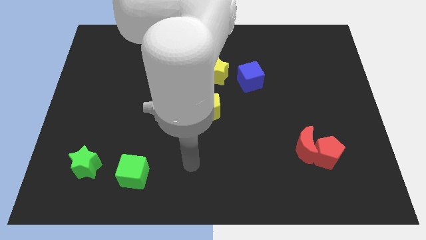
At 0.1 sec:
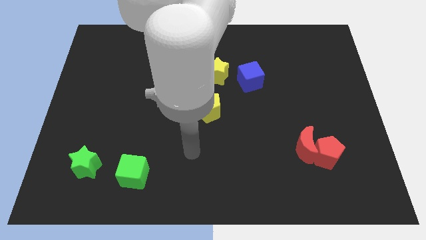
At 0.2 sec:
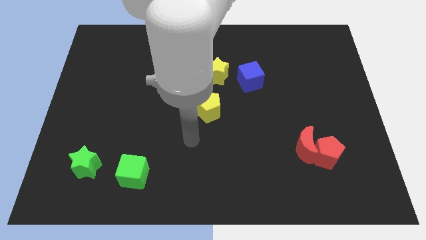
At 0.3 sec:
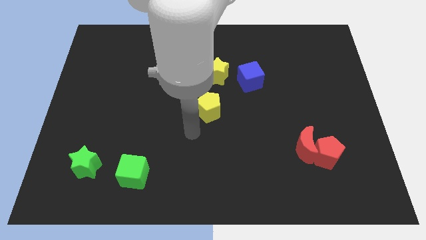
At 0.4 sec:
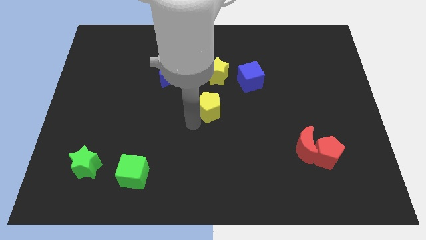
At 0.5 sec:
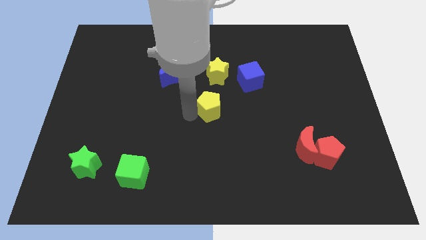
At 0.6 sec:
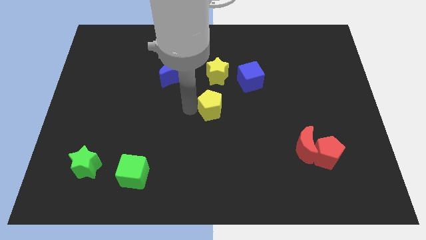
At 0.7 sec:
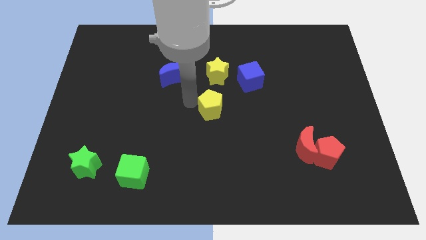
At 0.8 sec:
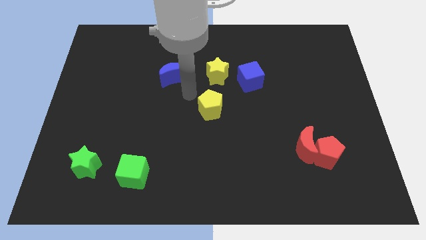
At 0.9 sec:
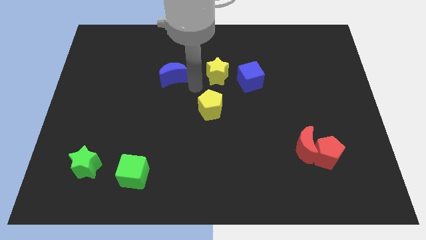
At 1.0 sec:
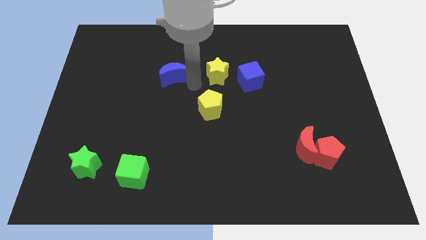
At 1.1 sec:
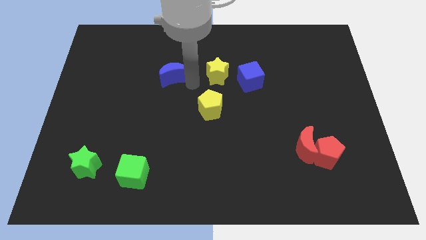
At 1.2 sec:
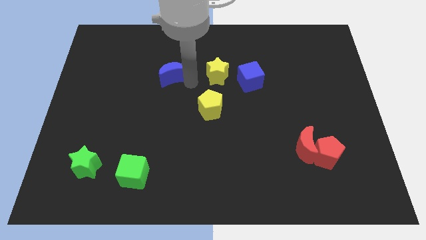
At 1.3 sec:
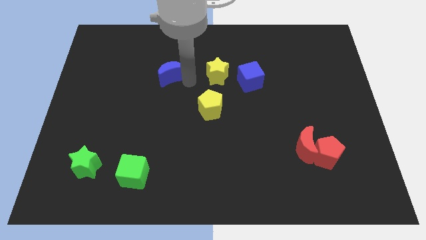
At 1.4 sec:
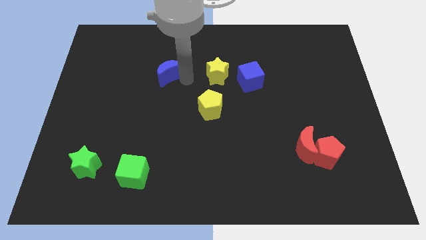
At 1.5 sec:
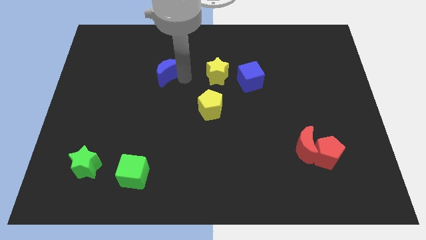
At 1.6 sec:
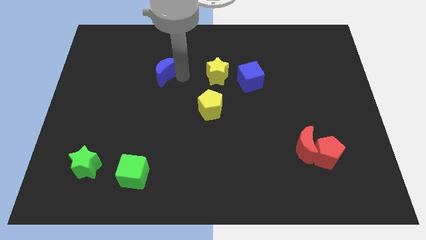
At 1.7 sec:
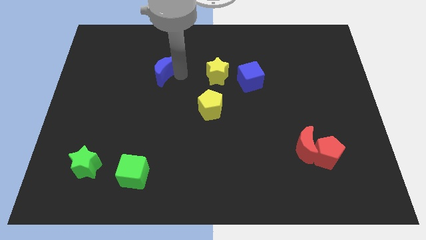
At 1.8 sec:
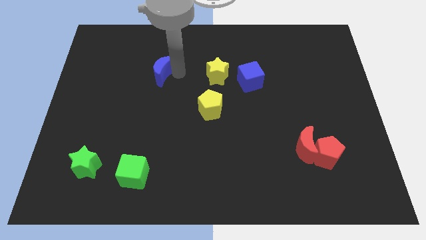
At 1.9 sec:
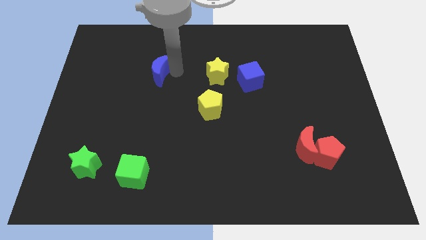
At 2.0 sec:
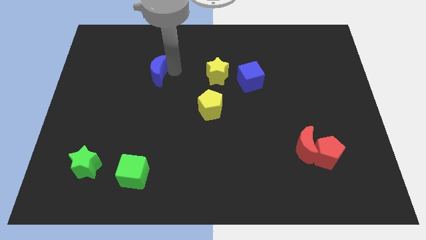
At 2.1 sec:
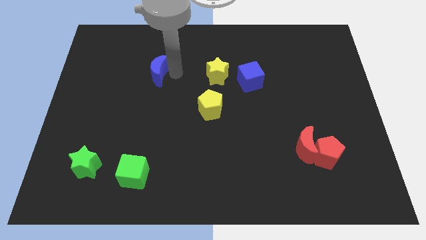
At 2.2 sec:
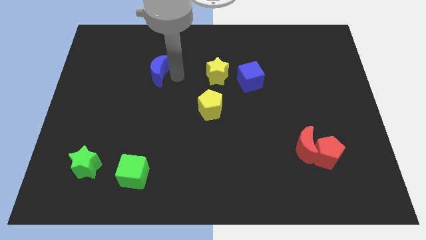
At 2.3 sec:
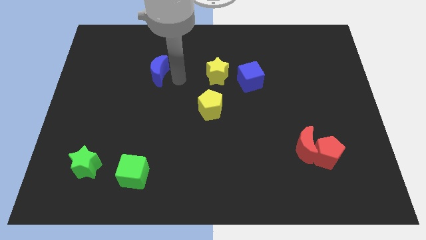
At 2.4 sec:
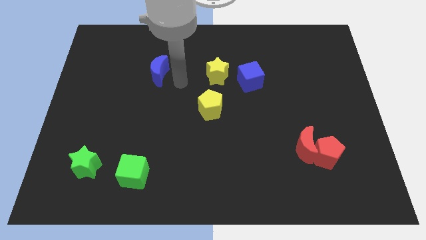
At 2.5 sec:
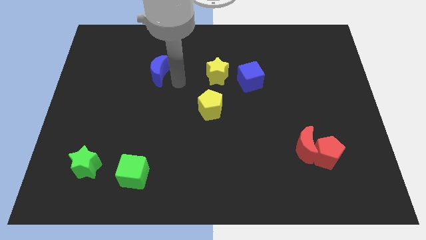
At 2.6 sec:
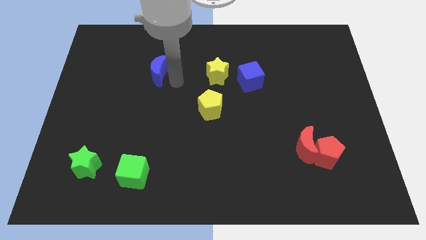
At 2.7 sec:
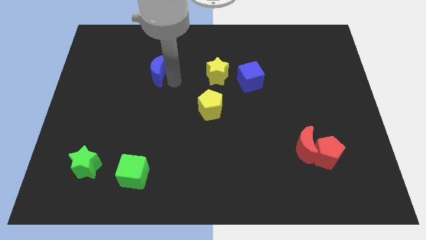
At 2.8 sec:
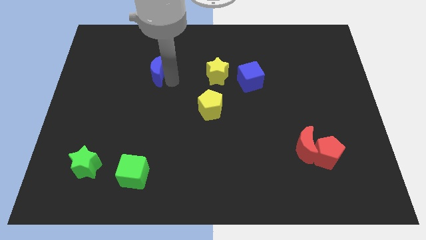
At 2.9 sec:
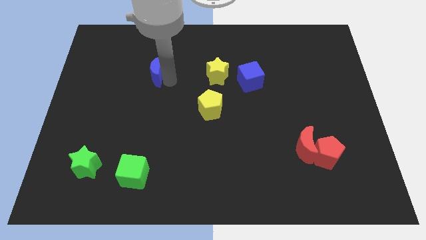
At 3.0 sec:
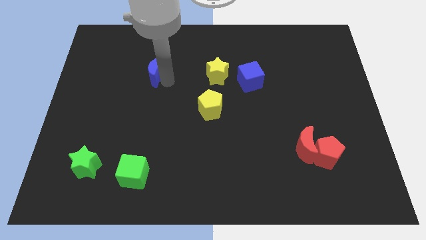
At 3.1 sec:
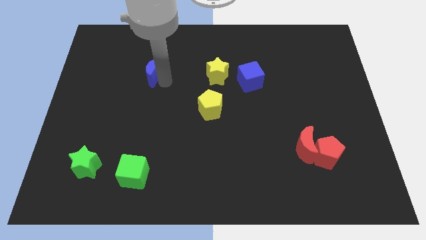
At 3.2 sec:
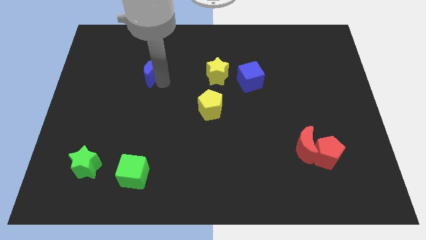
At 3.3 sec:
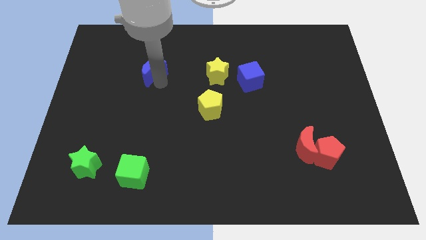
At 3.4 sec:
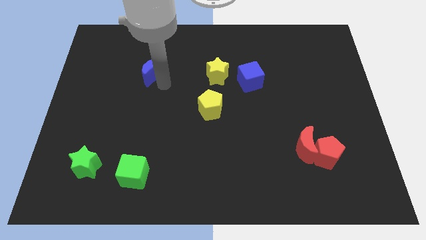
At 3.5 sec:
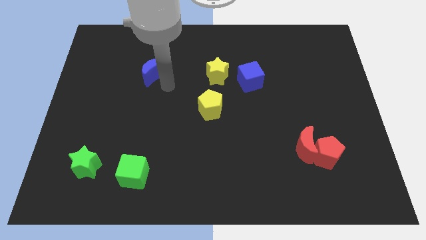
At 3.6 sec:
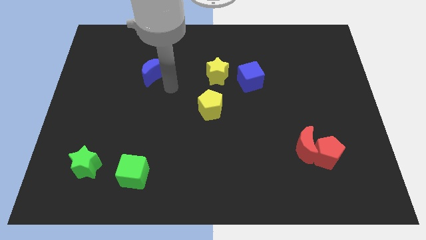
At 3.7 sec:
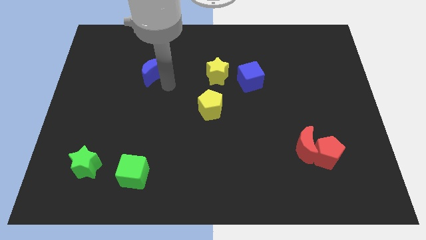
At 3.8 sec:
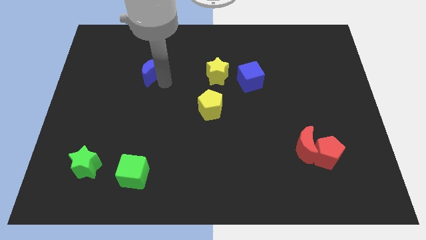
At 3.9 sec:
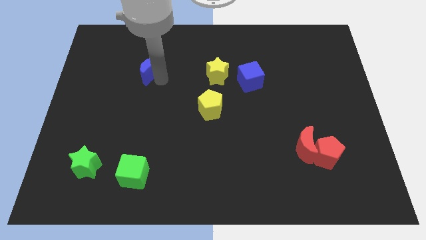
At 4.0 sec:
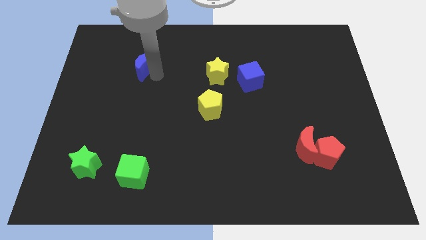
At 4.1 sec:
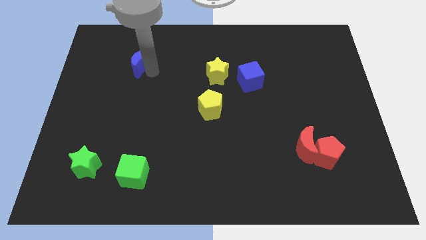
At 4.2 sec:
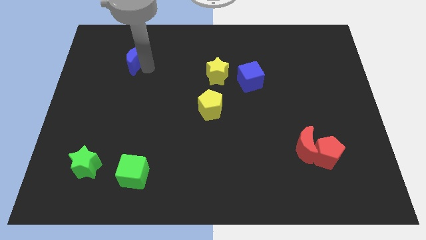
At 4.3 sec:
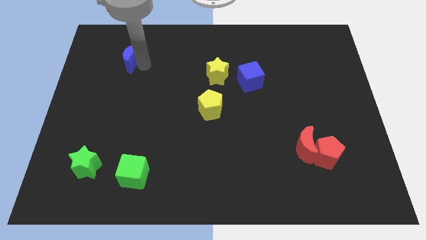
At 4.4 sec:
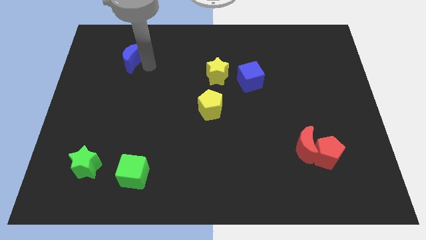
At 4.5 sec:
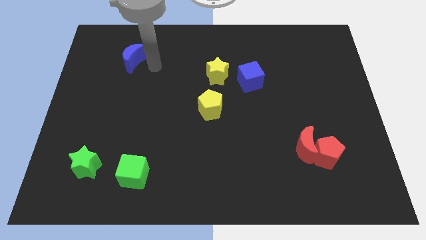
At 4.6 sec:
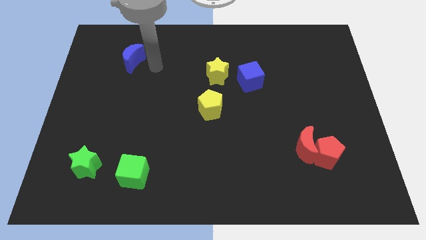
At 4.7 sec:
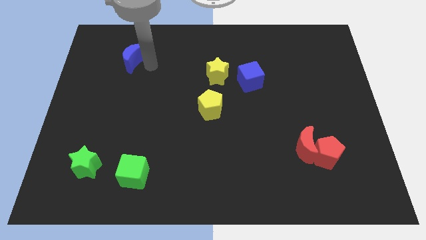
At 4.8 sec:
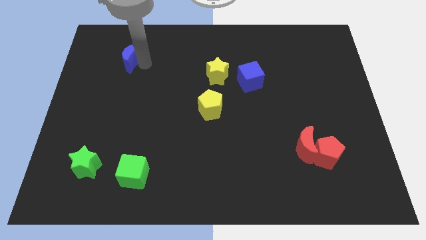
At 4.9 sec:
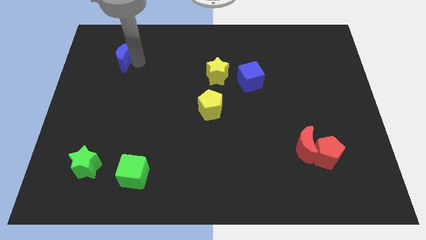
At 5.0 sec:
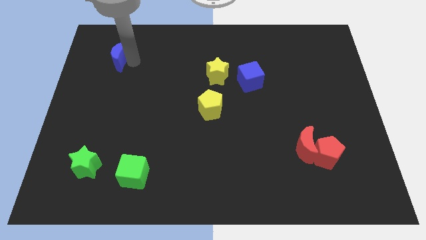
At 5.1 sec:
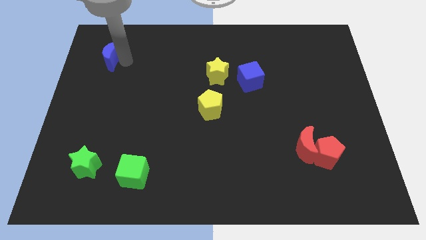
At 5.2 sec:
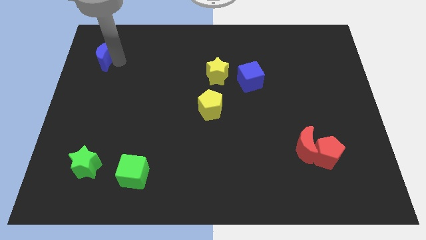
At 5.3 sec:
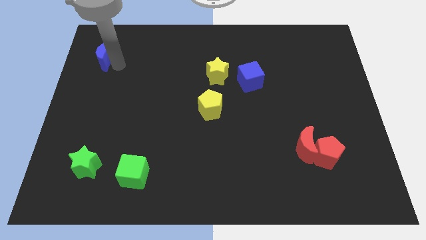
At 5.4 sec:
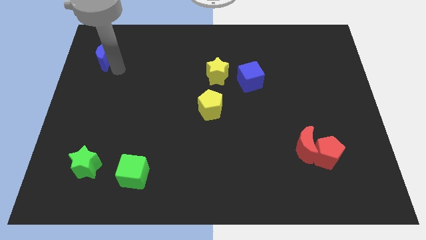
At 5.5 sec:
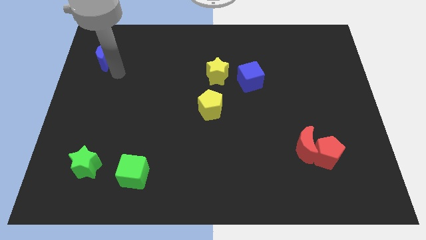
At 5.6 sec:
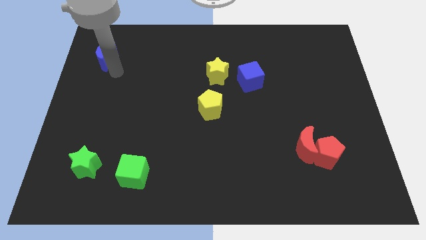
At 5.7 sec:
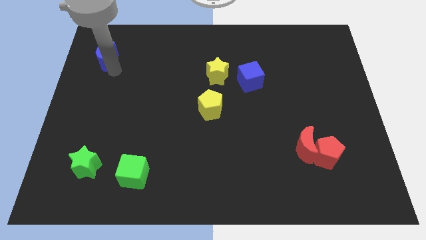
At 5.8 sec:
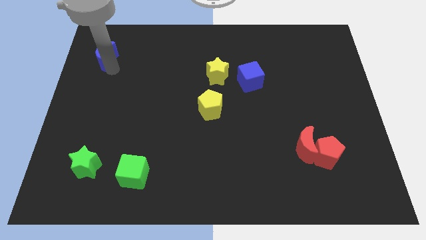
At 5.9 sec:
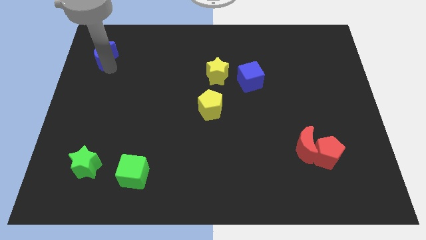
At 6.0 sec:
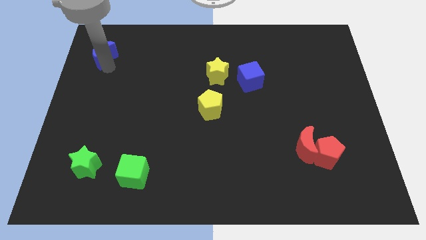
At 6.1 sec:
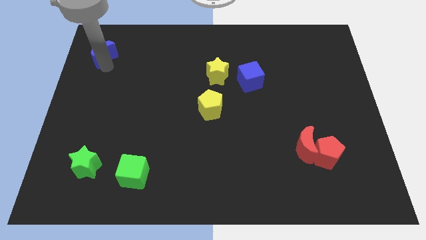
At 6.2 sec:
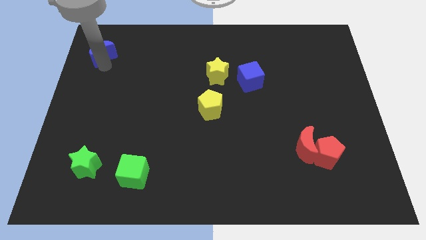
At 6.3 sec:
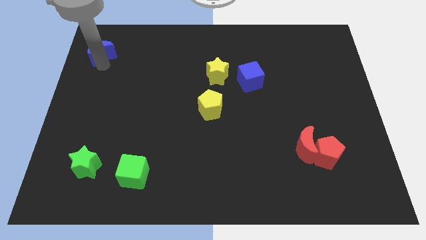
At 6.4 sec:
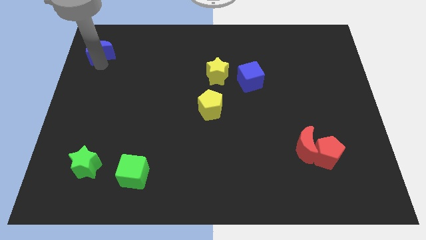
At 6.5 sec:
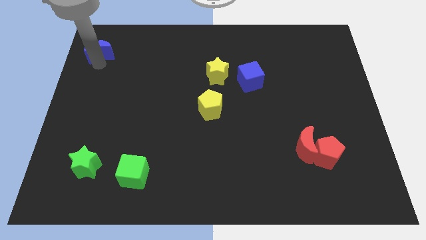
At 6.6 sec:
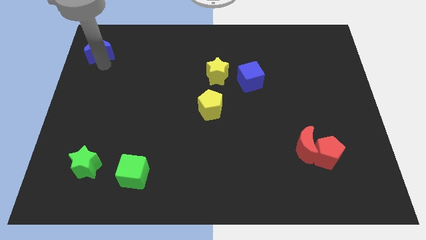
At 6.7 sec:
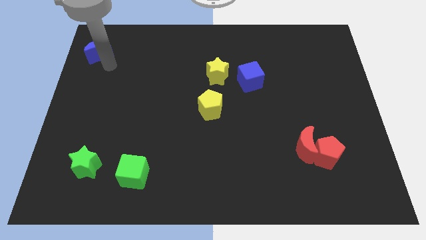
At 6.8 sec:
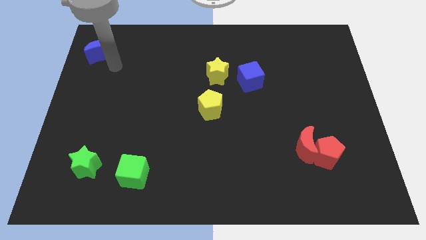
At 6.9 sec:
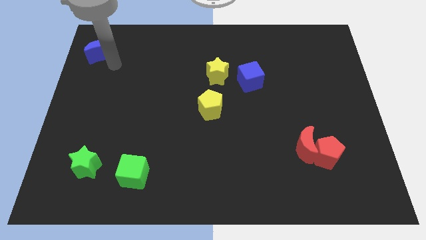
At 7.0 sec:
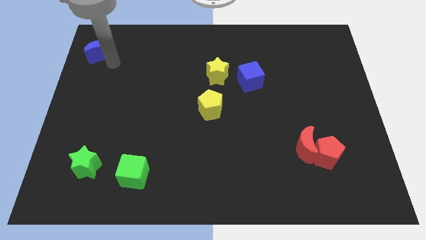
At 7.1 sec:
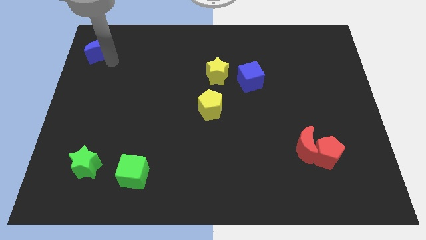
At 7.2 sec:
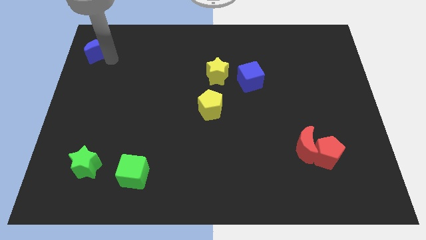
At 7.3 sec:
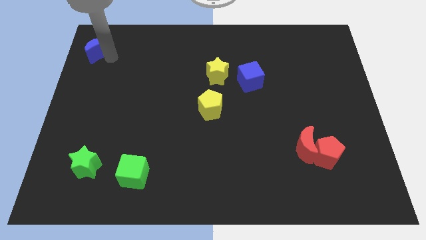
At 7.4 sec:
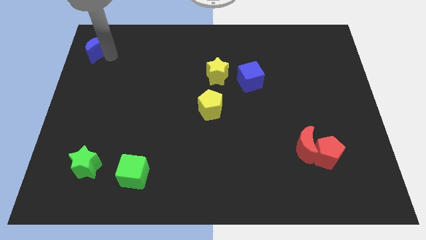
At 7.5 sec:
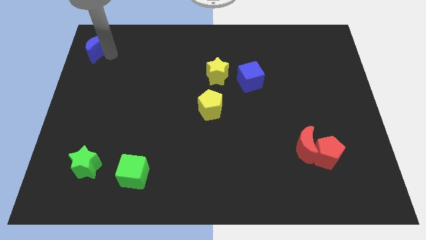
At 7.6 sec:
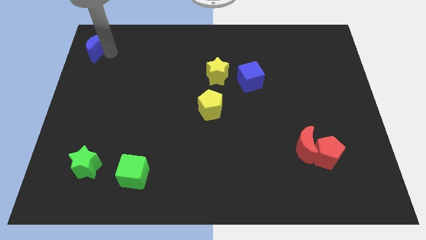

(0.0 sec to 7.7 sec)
put the blue moon to the top left corner
